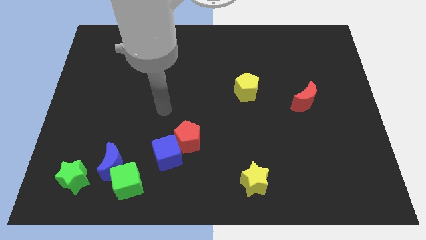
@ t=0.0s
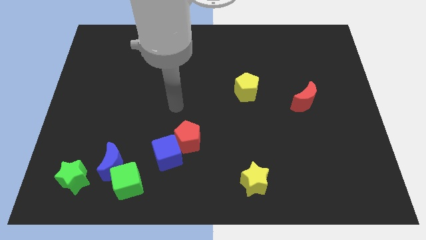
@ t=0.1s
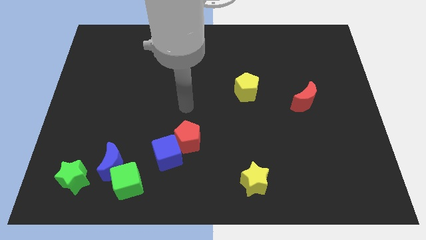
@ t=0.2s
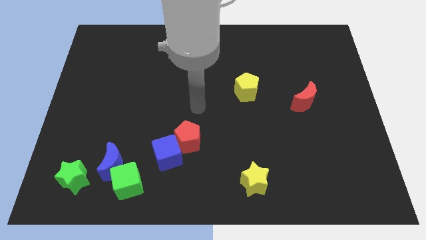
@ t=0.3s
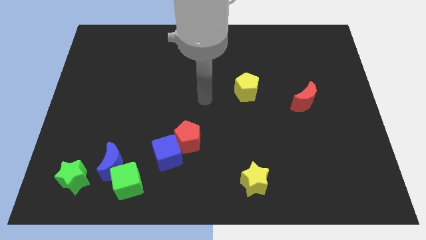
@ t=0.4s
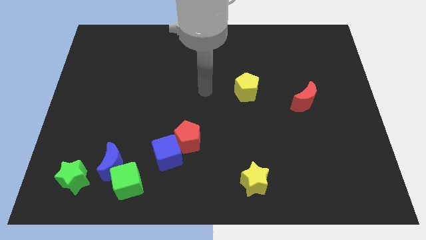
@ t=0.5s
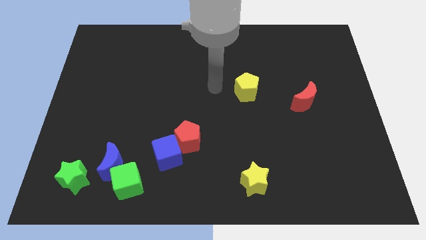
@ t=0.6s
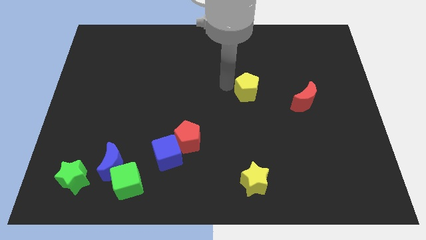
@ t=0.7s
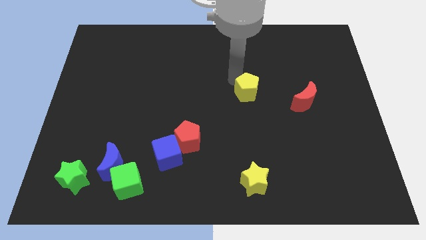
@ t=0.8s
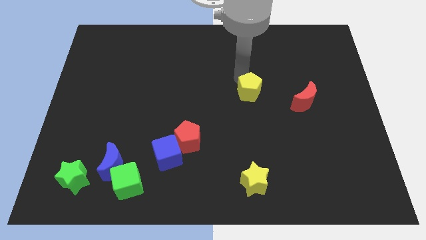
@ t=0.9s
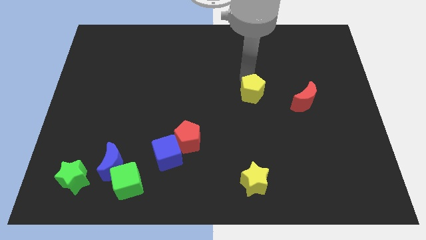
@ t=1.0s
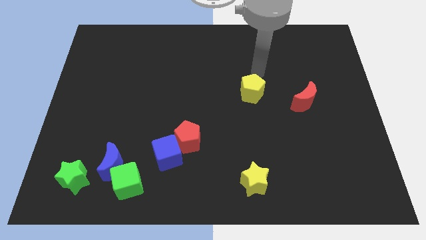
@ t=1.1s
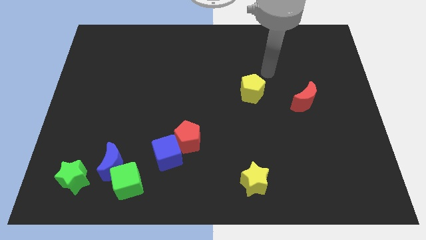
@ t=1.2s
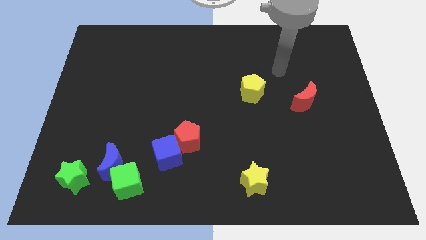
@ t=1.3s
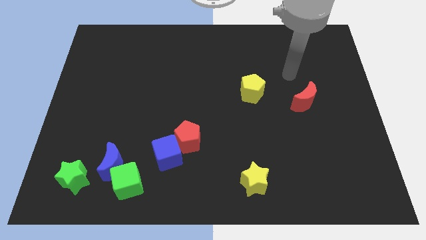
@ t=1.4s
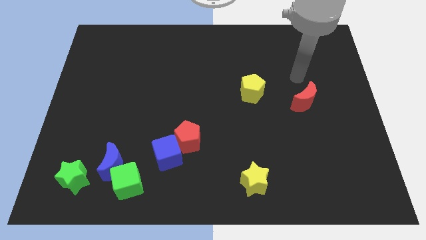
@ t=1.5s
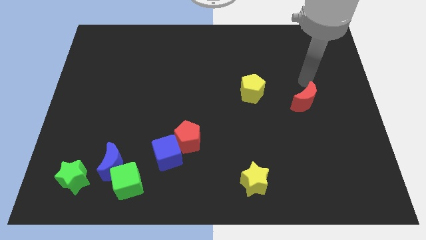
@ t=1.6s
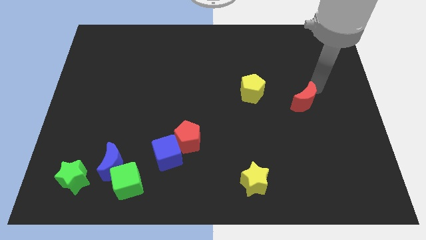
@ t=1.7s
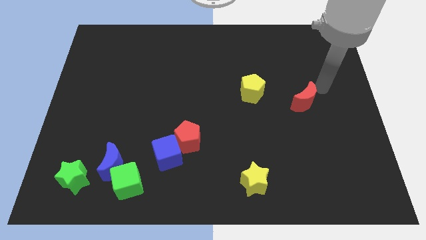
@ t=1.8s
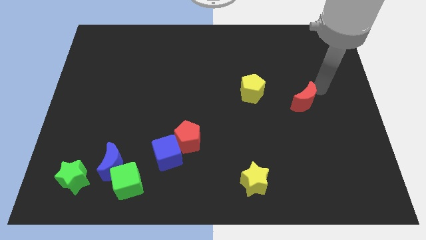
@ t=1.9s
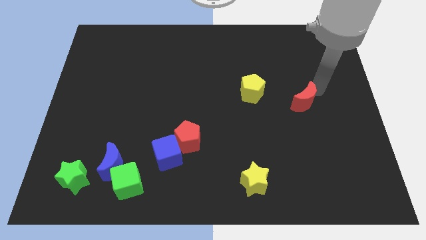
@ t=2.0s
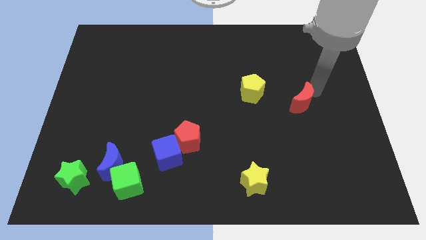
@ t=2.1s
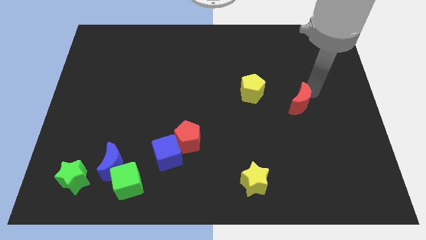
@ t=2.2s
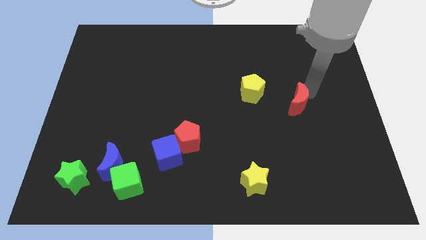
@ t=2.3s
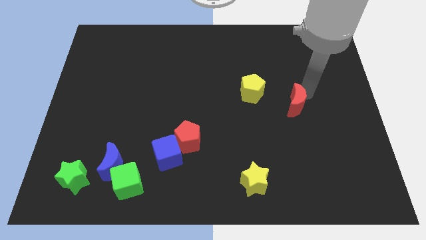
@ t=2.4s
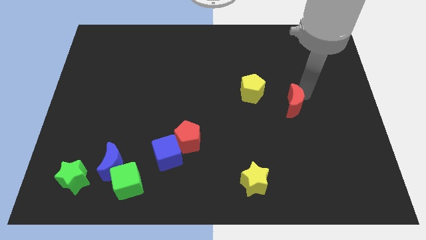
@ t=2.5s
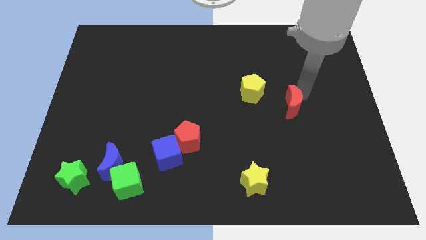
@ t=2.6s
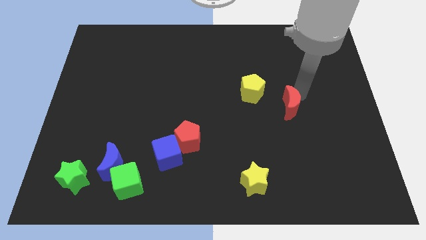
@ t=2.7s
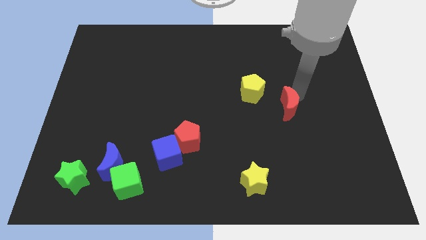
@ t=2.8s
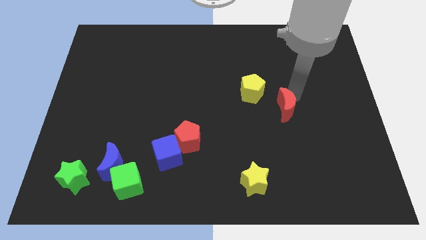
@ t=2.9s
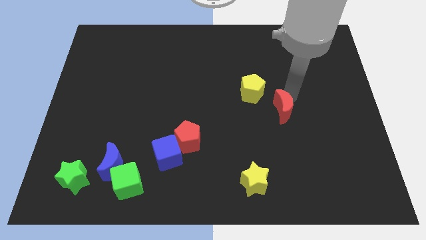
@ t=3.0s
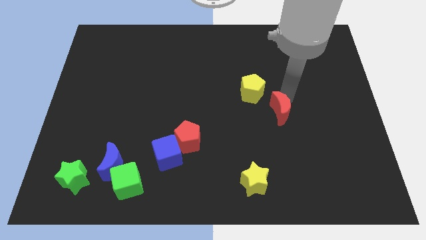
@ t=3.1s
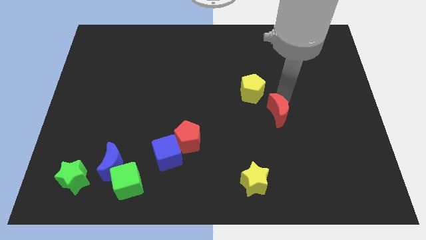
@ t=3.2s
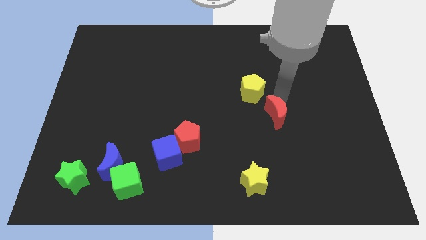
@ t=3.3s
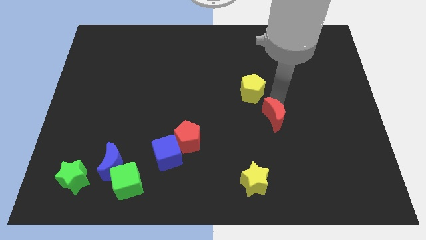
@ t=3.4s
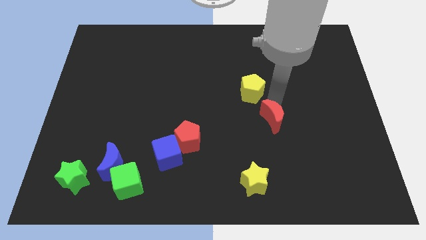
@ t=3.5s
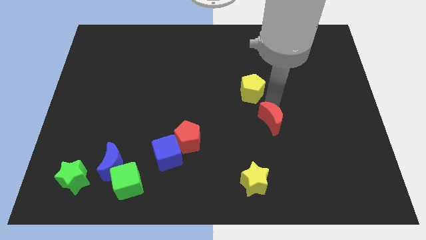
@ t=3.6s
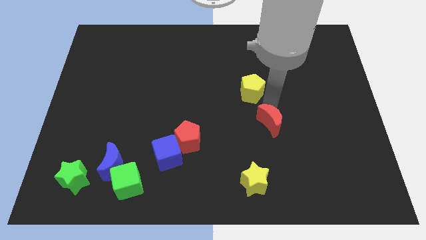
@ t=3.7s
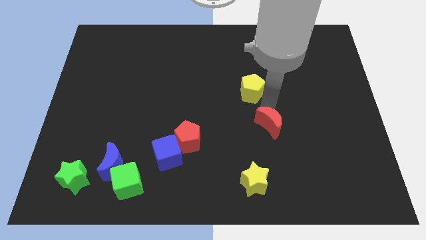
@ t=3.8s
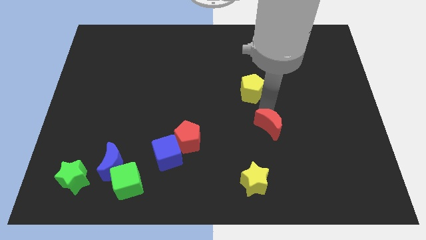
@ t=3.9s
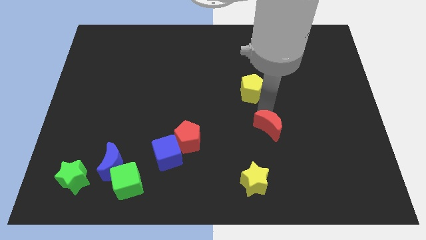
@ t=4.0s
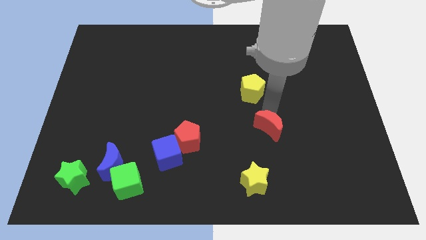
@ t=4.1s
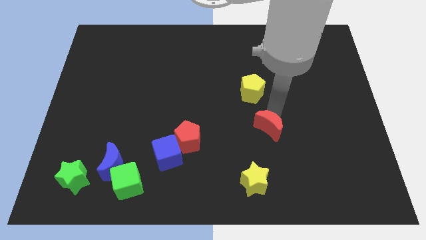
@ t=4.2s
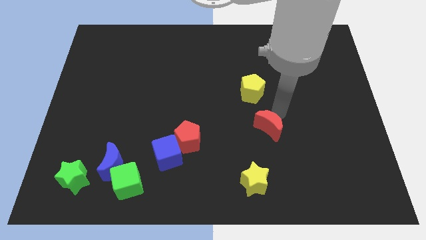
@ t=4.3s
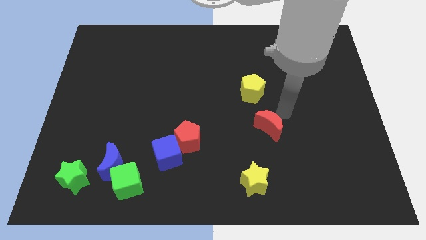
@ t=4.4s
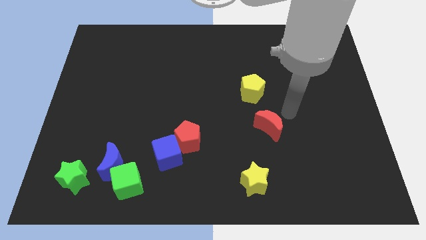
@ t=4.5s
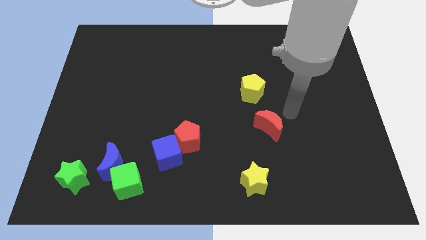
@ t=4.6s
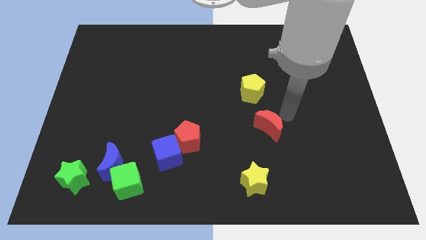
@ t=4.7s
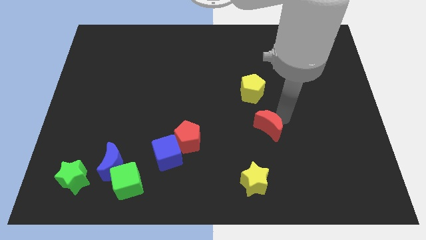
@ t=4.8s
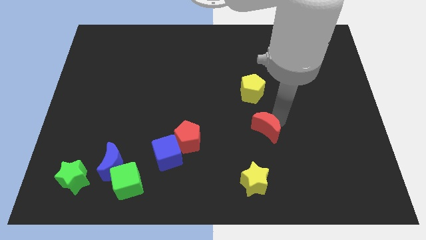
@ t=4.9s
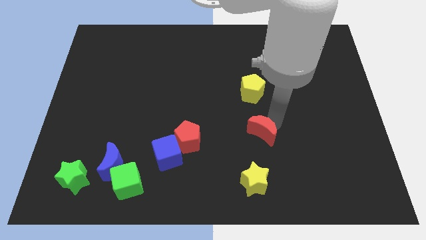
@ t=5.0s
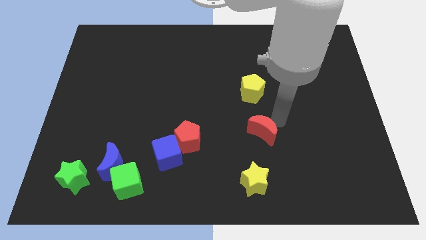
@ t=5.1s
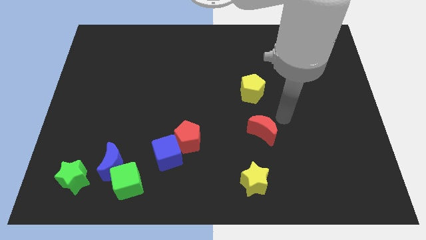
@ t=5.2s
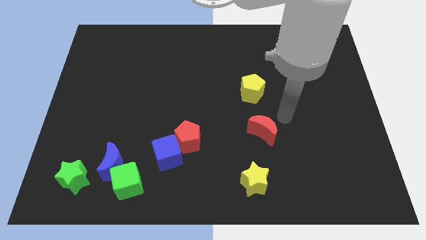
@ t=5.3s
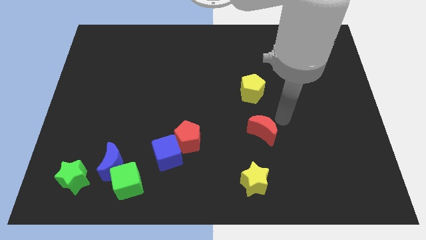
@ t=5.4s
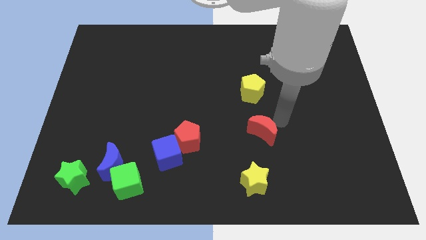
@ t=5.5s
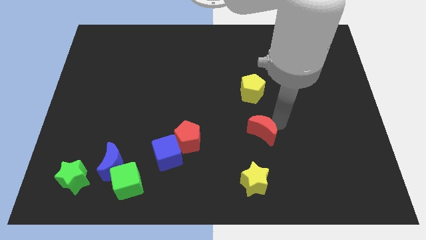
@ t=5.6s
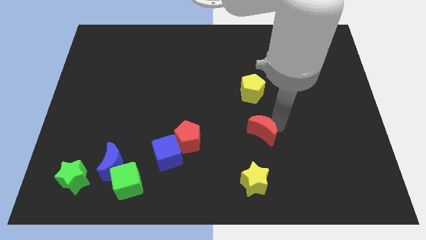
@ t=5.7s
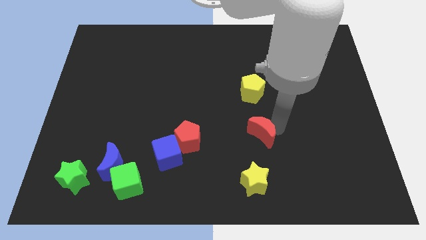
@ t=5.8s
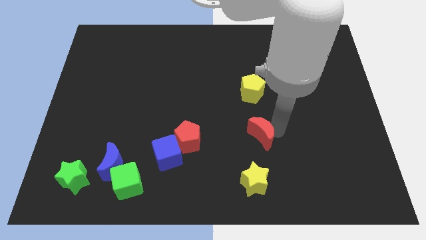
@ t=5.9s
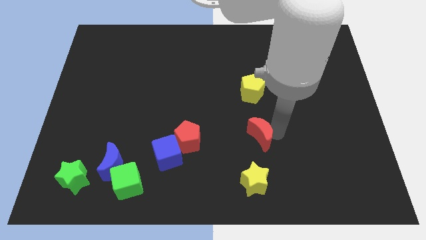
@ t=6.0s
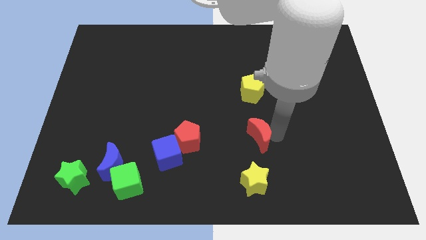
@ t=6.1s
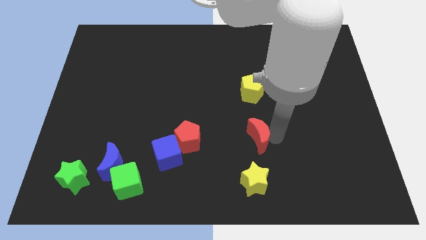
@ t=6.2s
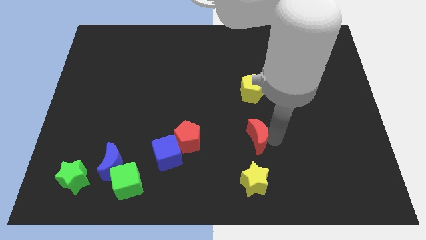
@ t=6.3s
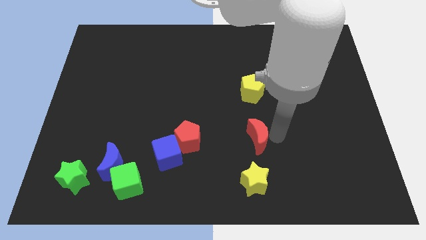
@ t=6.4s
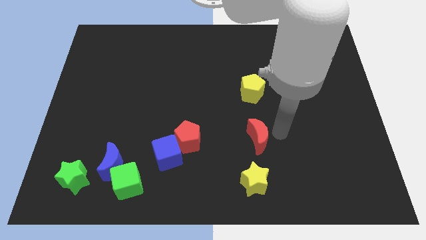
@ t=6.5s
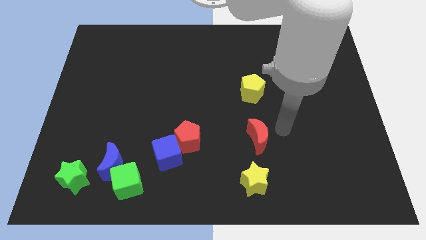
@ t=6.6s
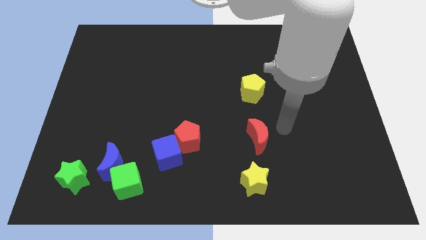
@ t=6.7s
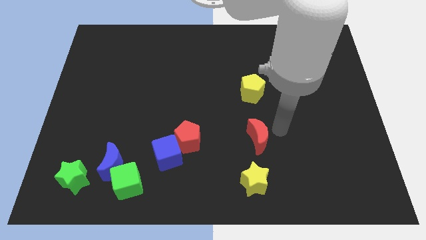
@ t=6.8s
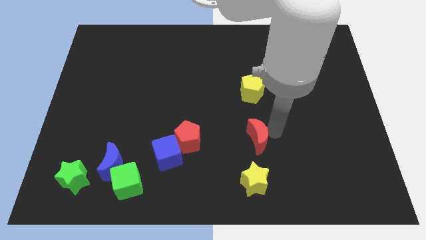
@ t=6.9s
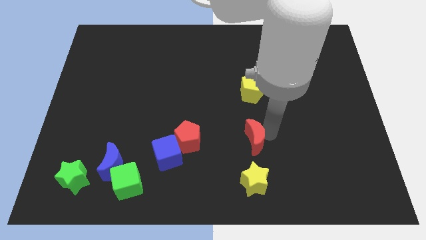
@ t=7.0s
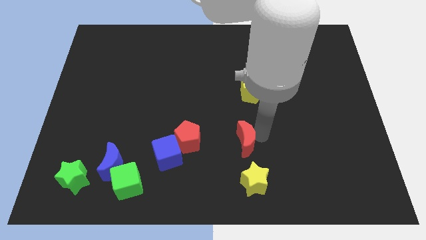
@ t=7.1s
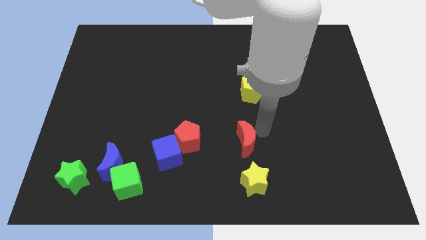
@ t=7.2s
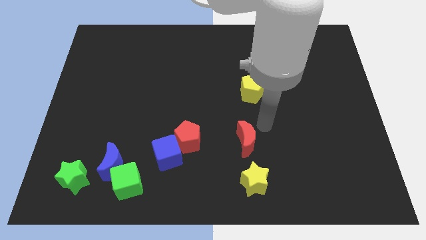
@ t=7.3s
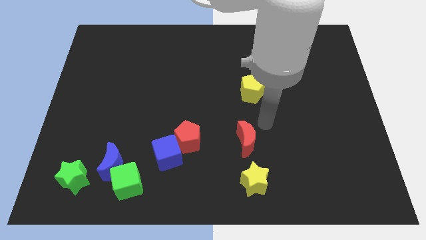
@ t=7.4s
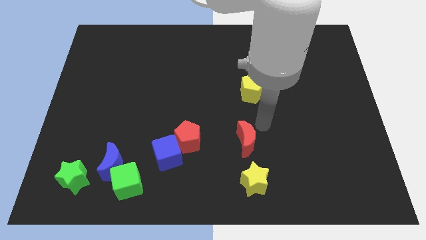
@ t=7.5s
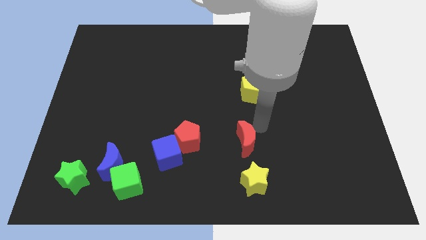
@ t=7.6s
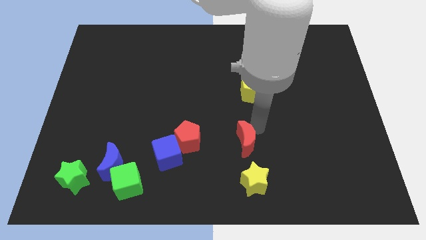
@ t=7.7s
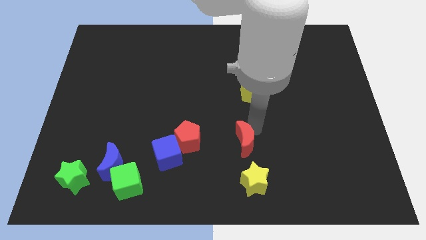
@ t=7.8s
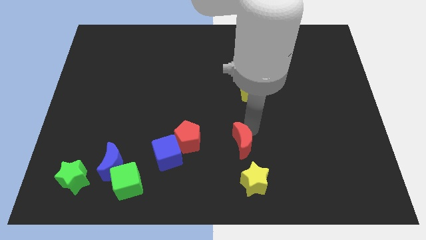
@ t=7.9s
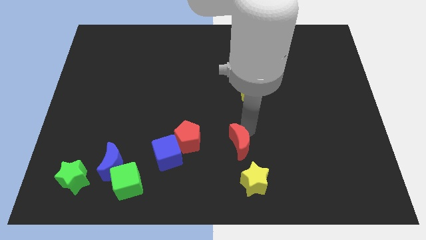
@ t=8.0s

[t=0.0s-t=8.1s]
slide the red moon to the top left of the yellow star
